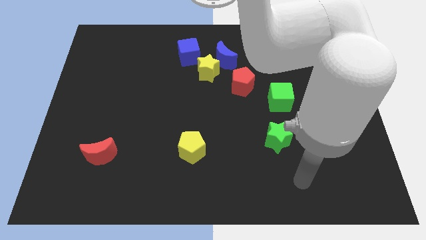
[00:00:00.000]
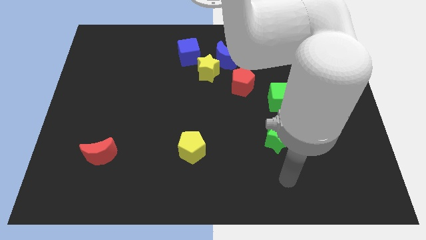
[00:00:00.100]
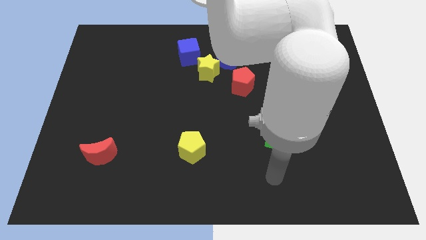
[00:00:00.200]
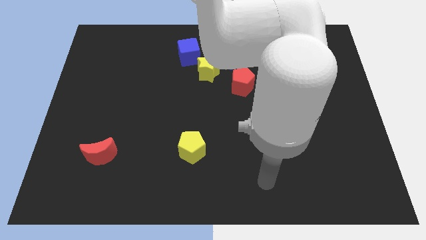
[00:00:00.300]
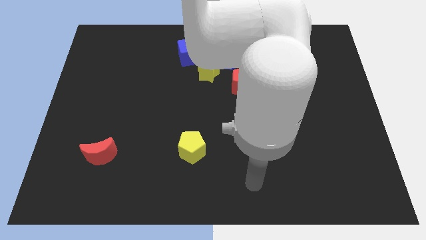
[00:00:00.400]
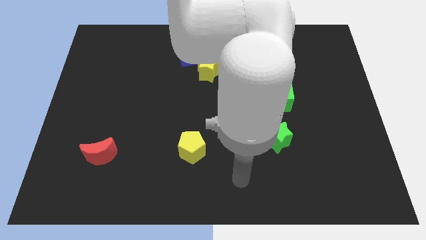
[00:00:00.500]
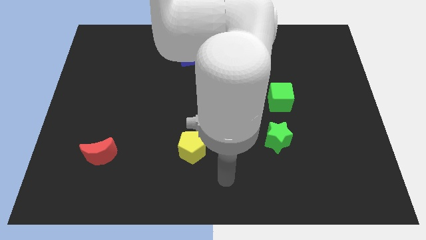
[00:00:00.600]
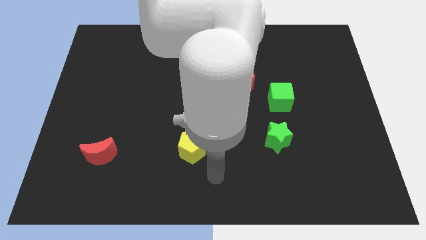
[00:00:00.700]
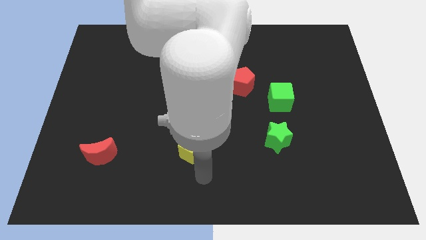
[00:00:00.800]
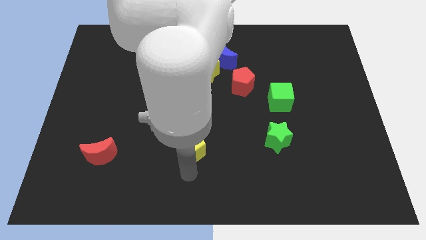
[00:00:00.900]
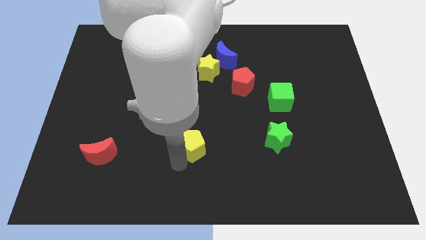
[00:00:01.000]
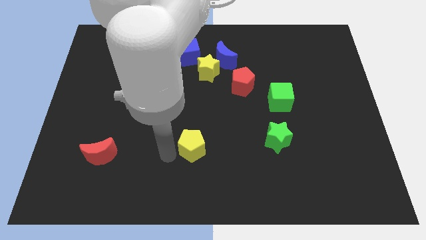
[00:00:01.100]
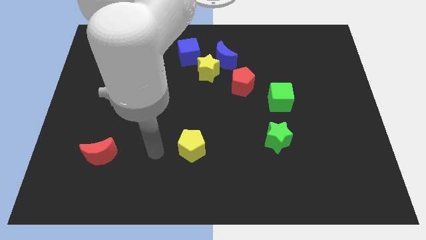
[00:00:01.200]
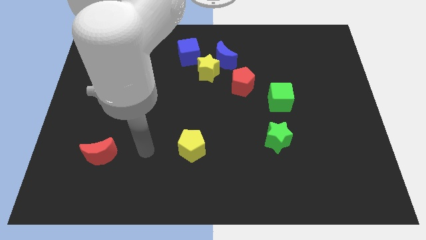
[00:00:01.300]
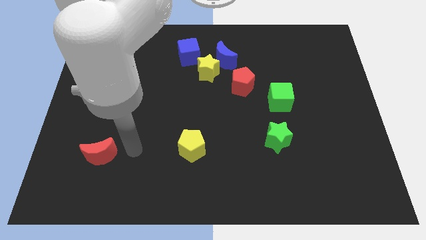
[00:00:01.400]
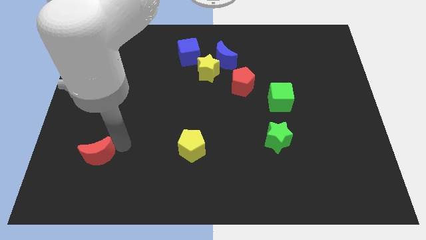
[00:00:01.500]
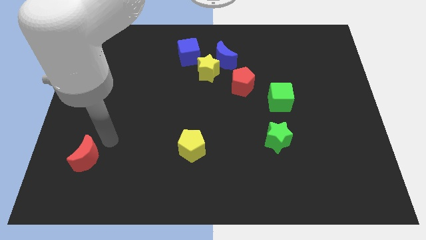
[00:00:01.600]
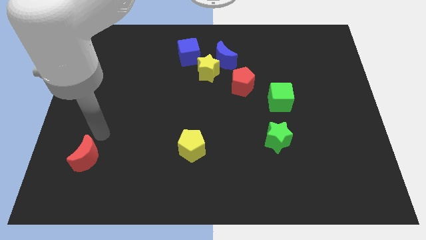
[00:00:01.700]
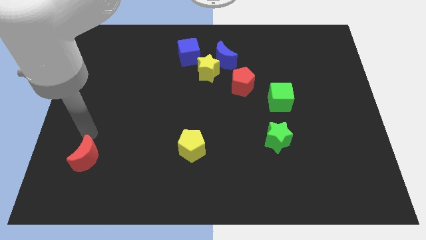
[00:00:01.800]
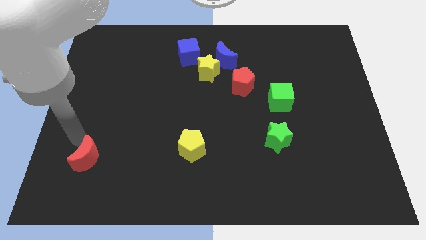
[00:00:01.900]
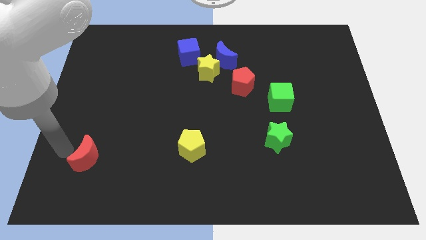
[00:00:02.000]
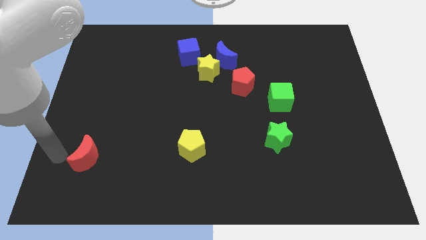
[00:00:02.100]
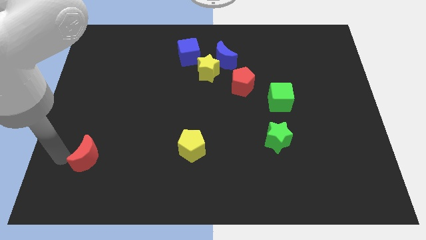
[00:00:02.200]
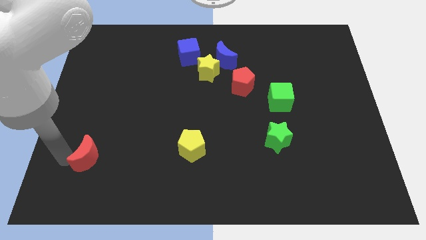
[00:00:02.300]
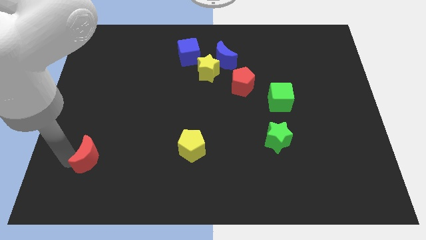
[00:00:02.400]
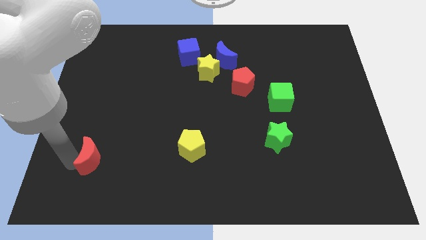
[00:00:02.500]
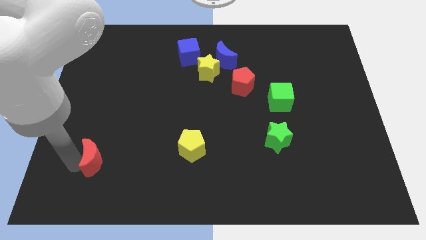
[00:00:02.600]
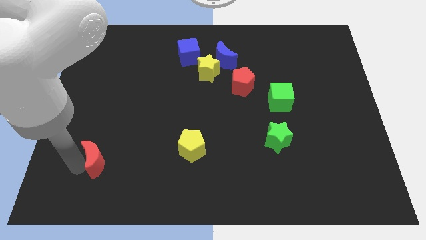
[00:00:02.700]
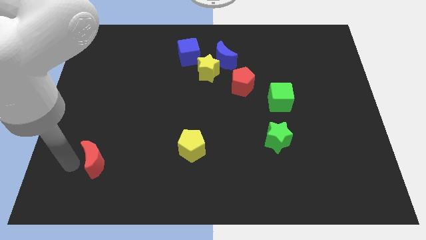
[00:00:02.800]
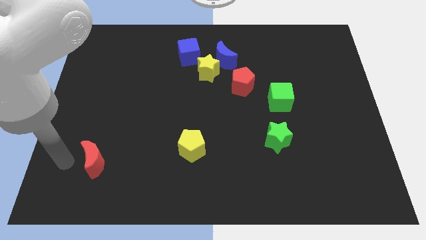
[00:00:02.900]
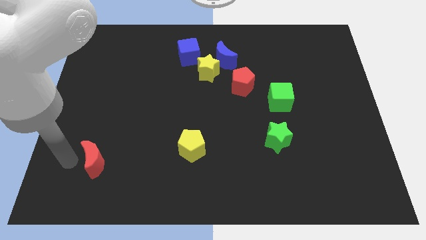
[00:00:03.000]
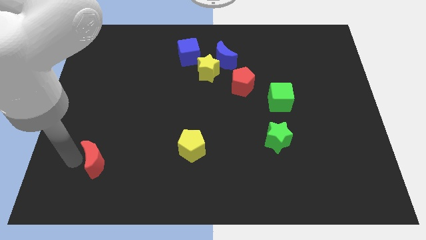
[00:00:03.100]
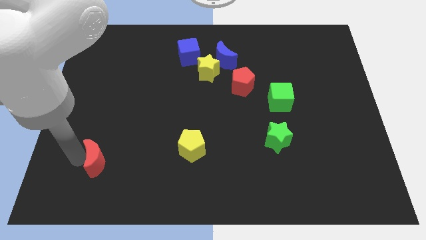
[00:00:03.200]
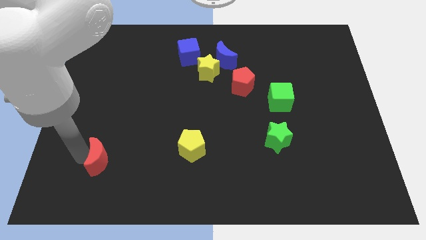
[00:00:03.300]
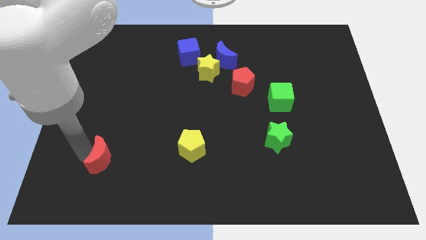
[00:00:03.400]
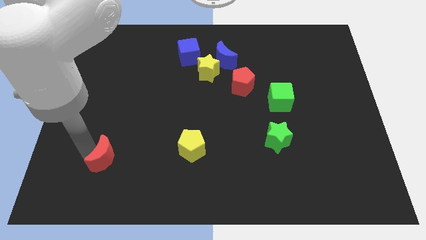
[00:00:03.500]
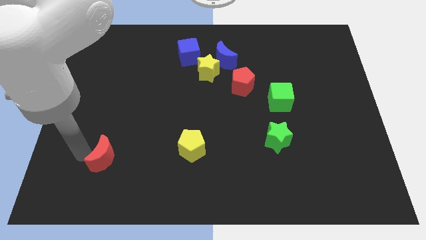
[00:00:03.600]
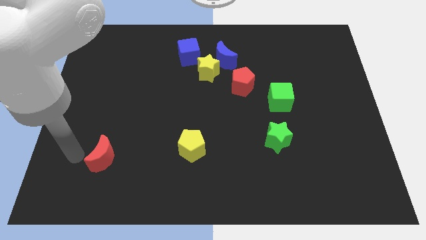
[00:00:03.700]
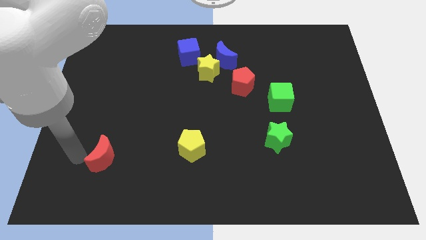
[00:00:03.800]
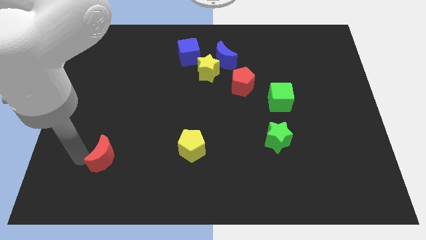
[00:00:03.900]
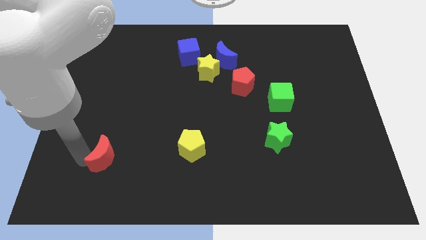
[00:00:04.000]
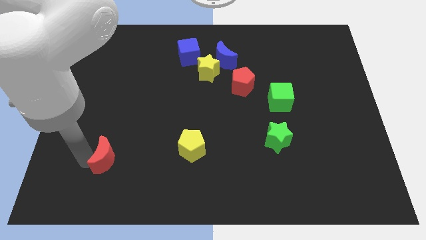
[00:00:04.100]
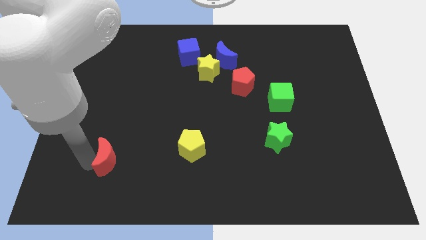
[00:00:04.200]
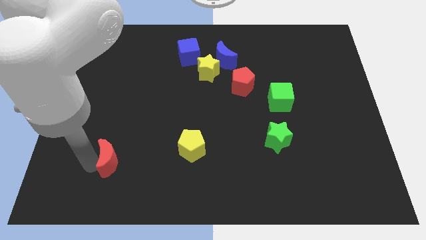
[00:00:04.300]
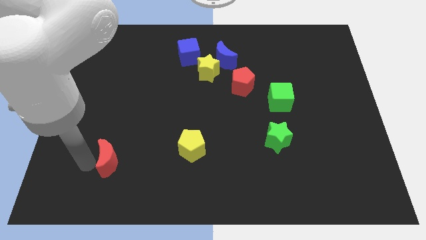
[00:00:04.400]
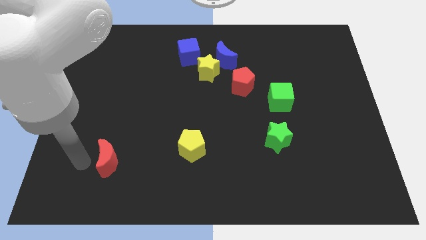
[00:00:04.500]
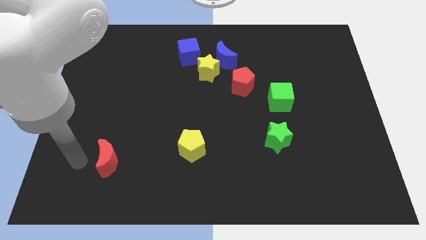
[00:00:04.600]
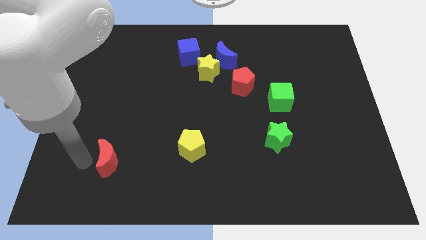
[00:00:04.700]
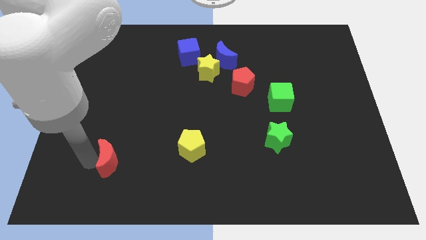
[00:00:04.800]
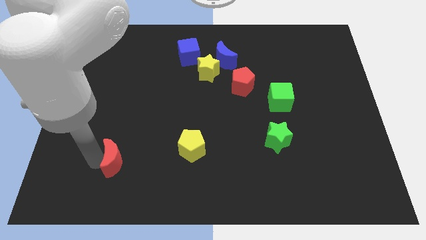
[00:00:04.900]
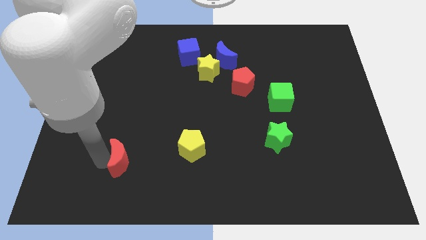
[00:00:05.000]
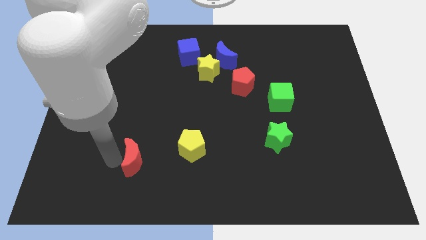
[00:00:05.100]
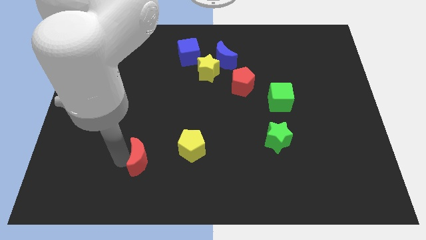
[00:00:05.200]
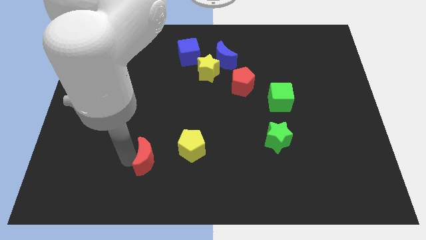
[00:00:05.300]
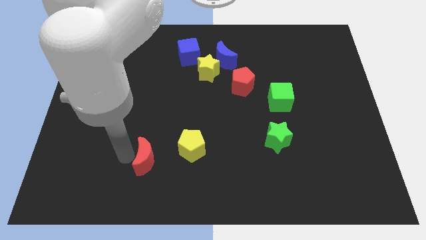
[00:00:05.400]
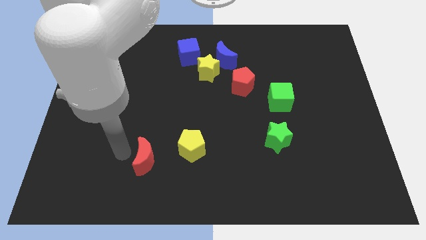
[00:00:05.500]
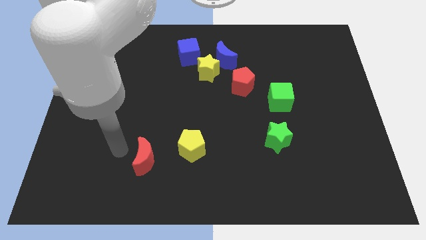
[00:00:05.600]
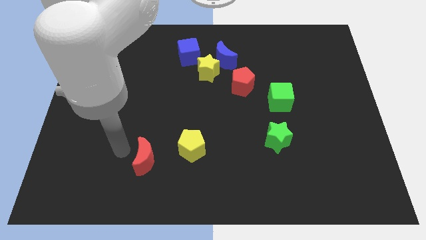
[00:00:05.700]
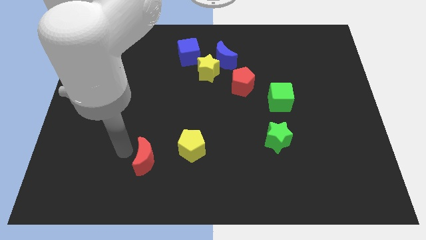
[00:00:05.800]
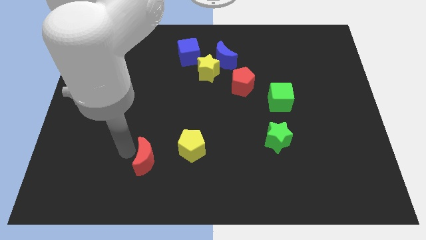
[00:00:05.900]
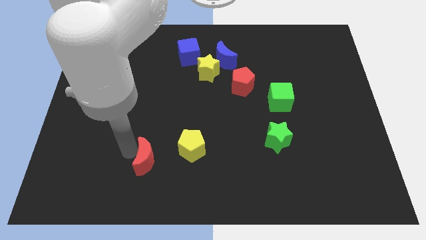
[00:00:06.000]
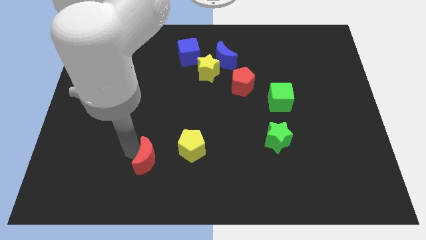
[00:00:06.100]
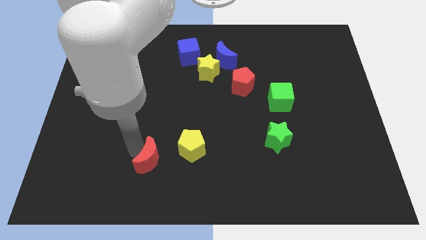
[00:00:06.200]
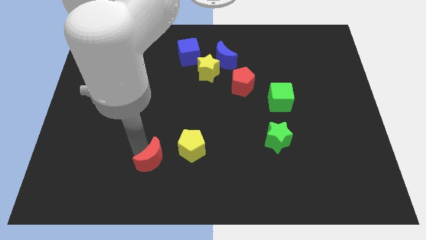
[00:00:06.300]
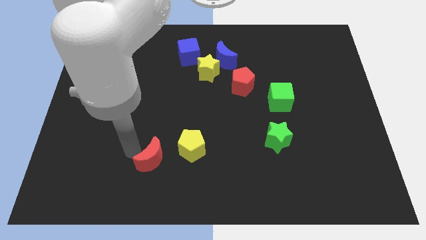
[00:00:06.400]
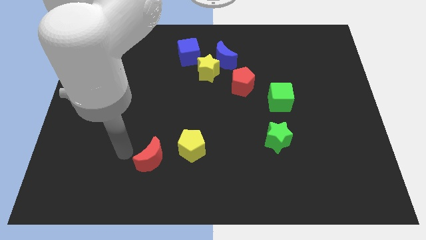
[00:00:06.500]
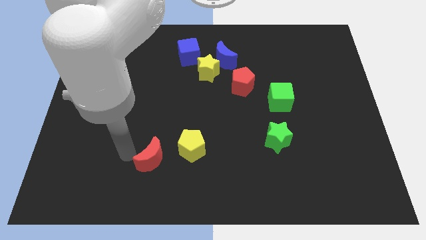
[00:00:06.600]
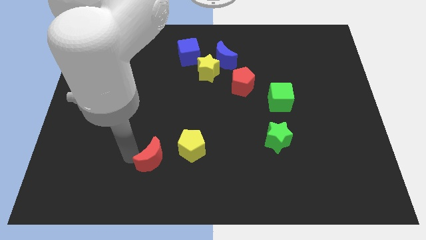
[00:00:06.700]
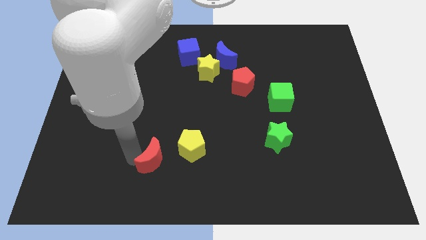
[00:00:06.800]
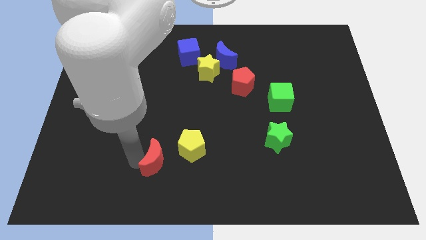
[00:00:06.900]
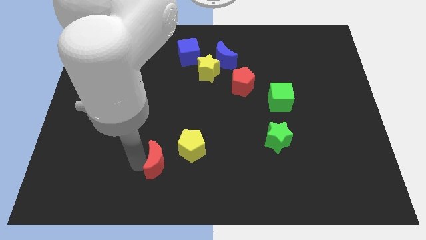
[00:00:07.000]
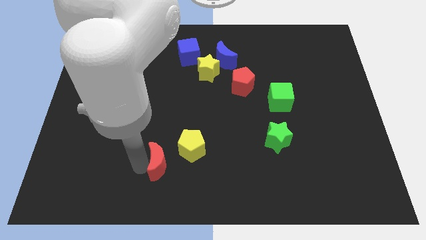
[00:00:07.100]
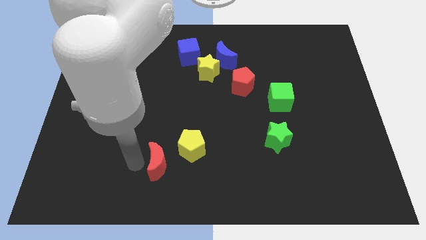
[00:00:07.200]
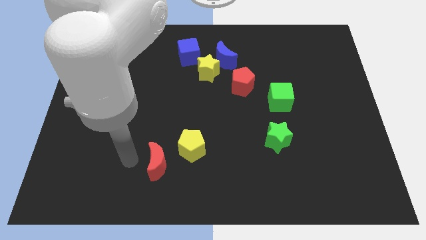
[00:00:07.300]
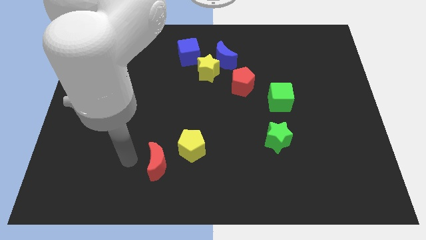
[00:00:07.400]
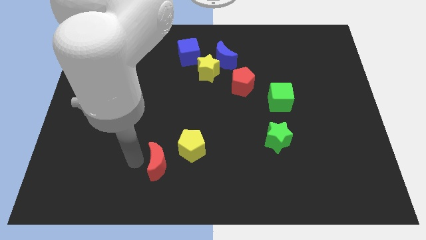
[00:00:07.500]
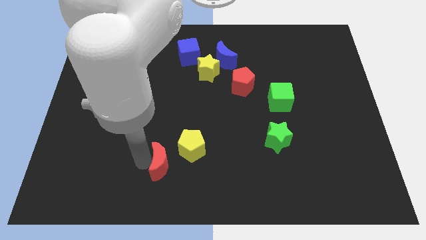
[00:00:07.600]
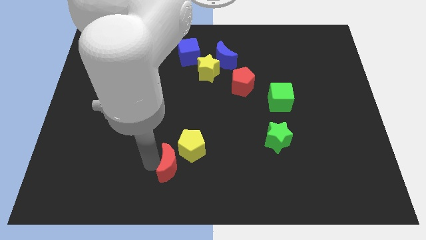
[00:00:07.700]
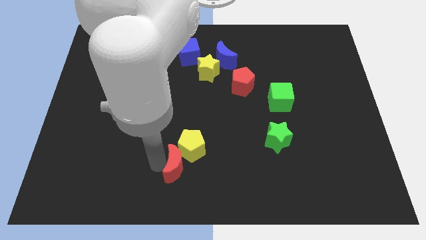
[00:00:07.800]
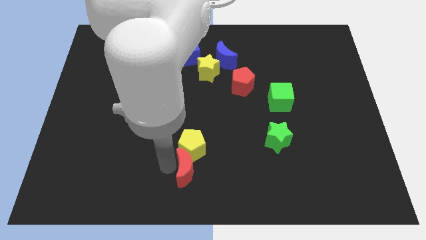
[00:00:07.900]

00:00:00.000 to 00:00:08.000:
push the red moon to the bottom right of the yellow pentagon

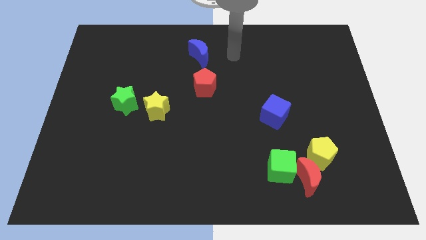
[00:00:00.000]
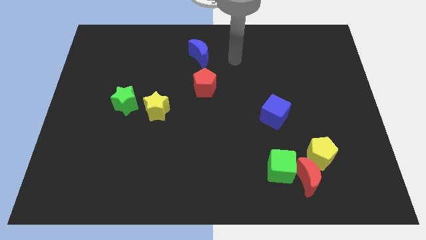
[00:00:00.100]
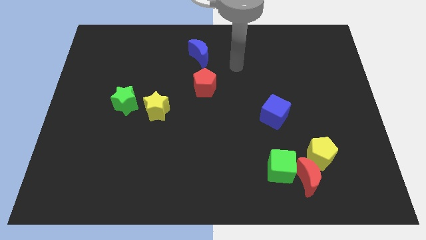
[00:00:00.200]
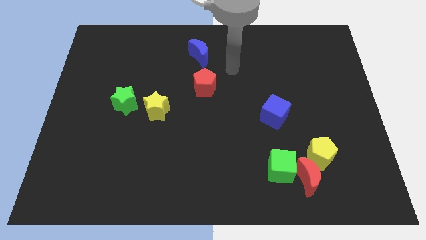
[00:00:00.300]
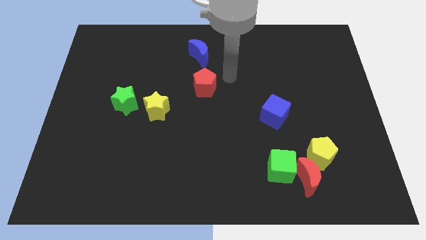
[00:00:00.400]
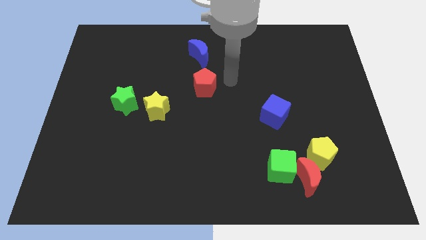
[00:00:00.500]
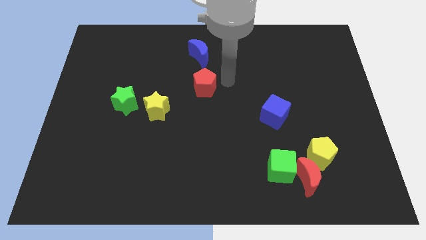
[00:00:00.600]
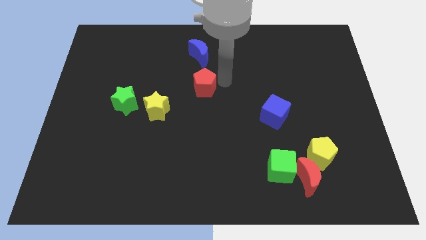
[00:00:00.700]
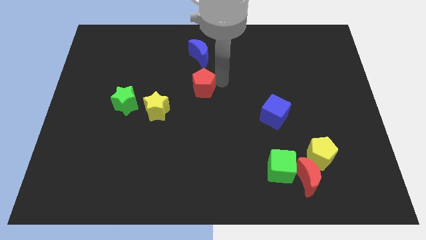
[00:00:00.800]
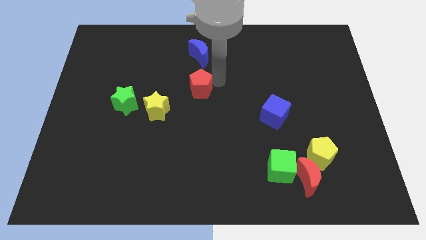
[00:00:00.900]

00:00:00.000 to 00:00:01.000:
push the red pentagon to the top right side of the yellow star
